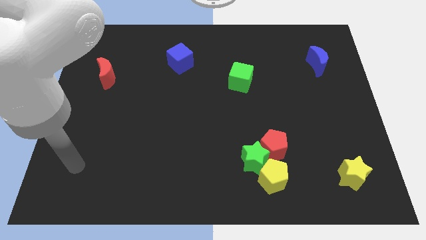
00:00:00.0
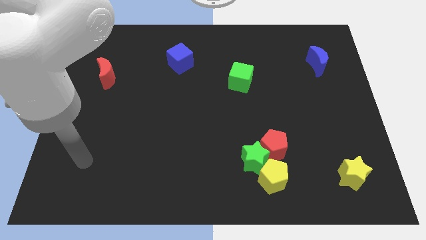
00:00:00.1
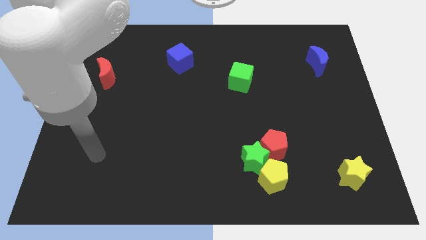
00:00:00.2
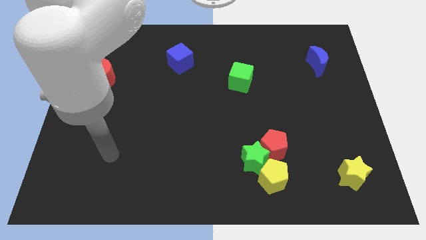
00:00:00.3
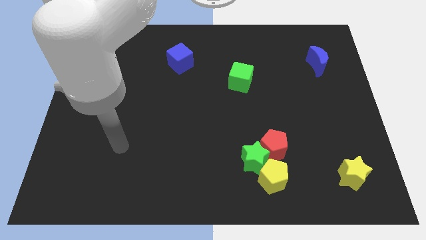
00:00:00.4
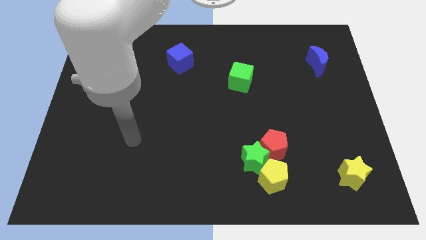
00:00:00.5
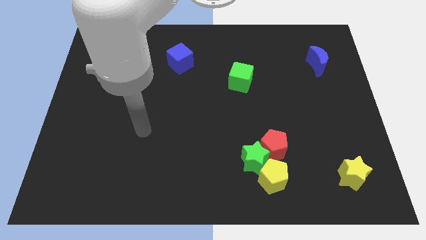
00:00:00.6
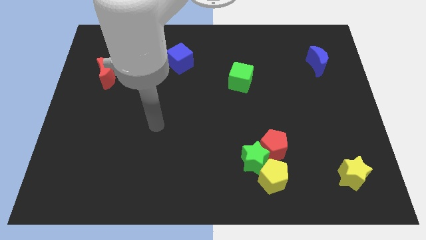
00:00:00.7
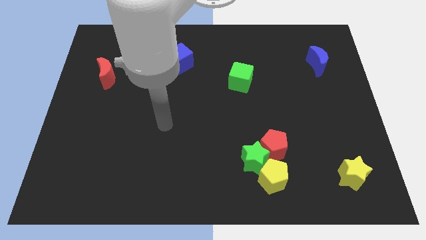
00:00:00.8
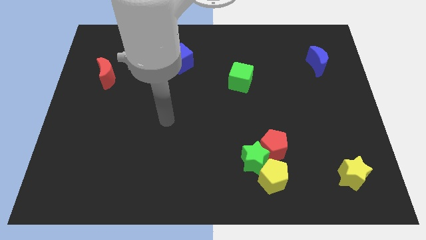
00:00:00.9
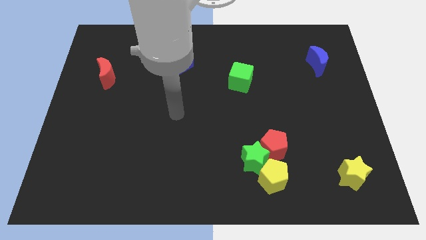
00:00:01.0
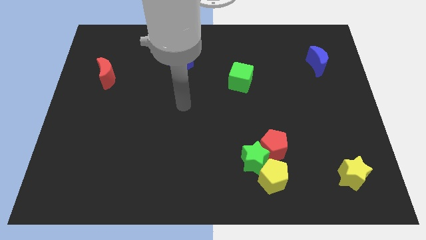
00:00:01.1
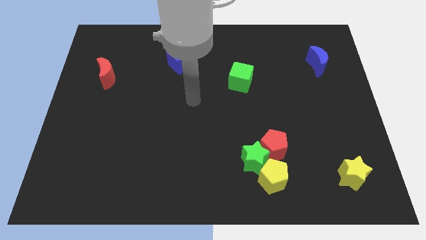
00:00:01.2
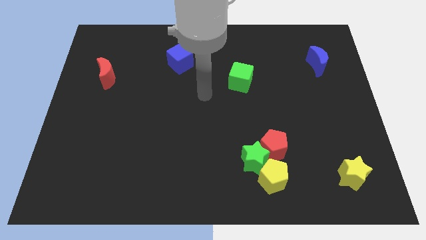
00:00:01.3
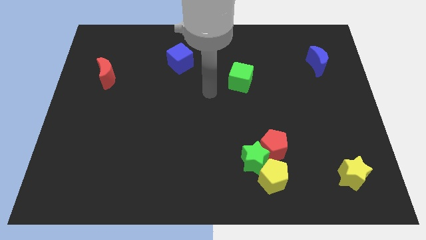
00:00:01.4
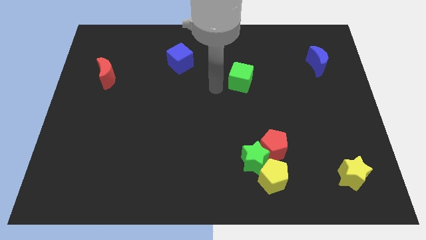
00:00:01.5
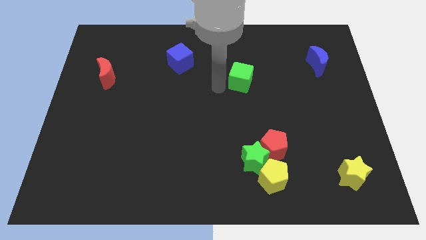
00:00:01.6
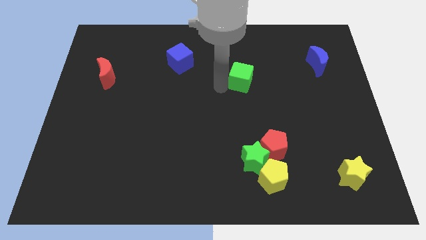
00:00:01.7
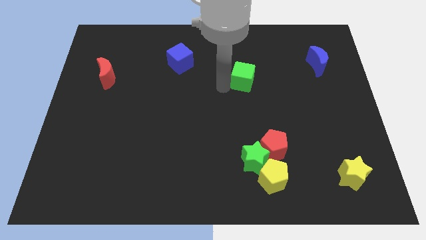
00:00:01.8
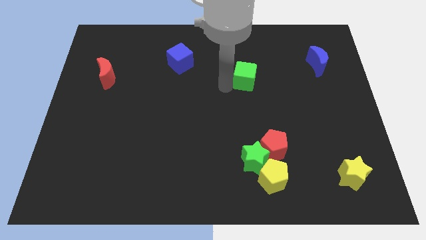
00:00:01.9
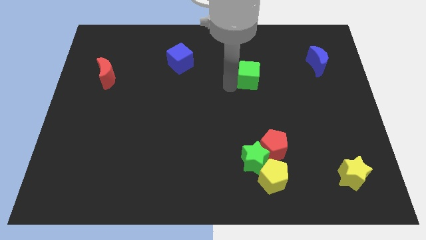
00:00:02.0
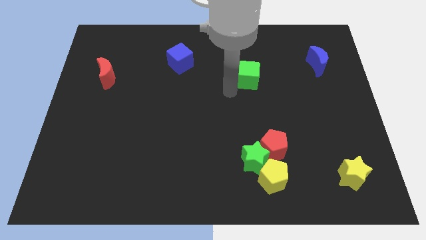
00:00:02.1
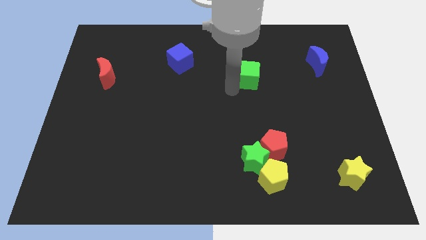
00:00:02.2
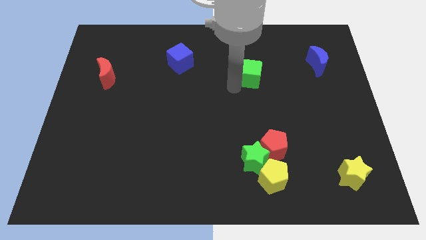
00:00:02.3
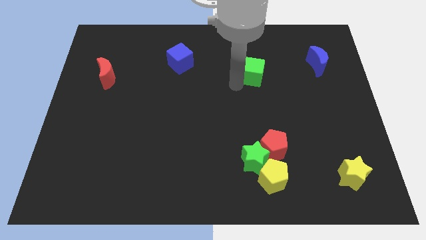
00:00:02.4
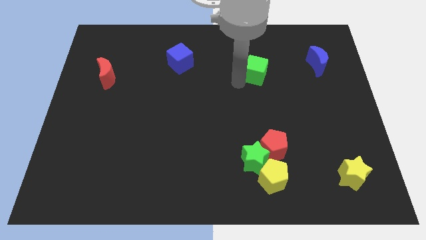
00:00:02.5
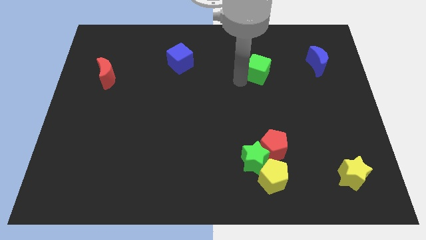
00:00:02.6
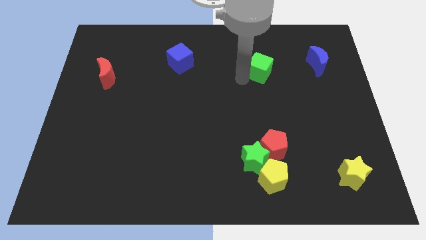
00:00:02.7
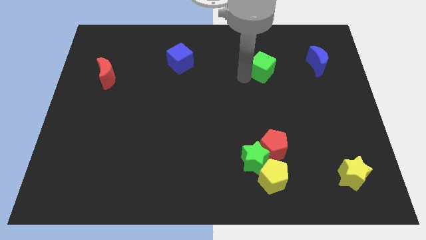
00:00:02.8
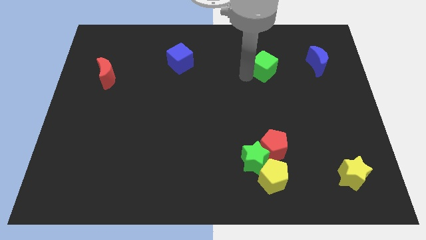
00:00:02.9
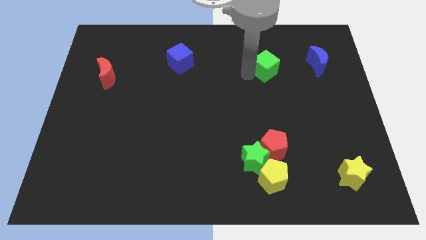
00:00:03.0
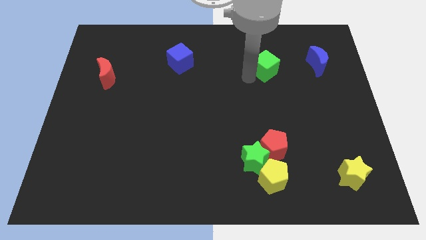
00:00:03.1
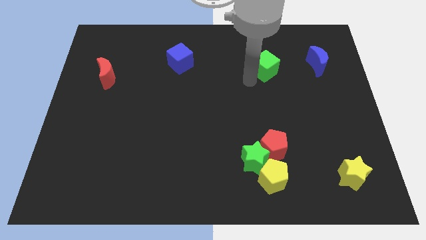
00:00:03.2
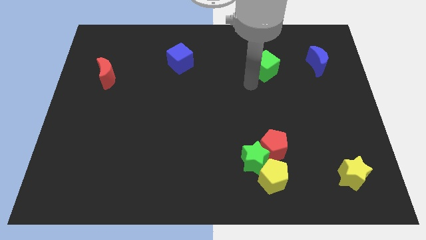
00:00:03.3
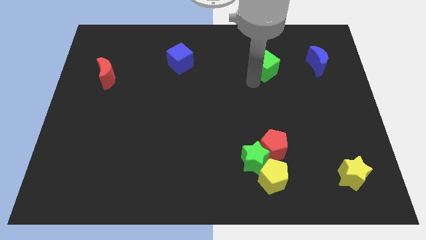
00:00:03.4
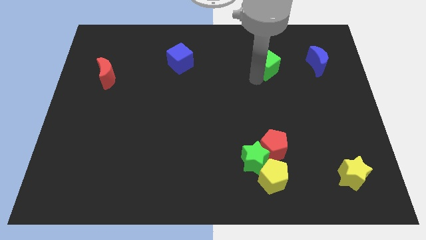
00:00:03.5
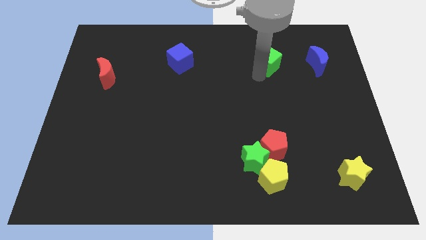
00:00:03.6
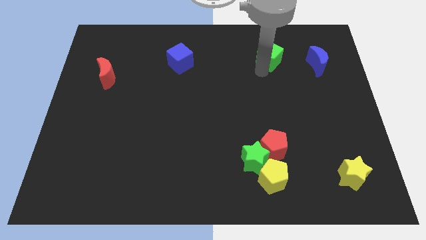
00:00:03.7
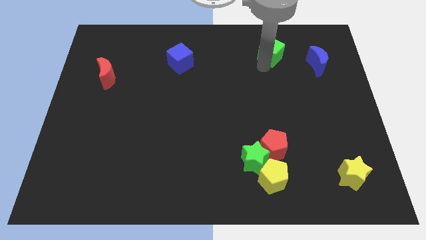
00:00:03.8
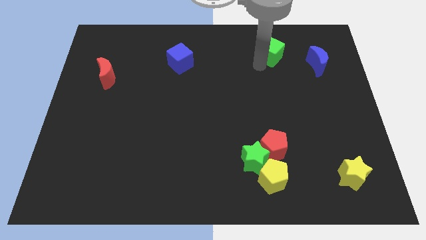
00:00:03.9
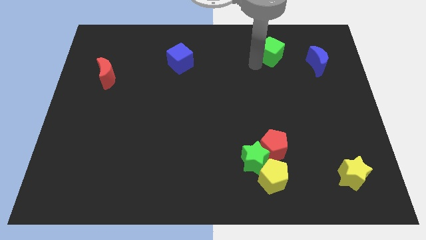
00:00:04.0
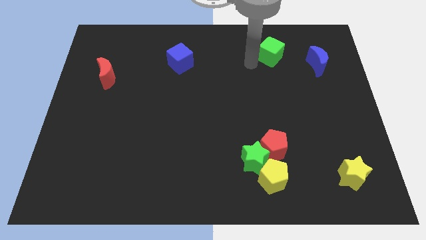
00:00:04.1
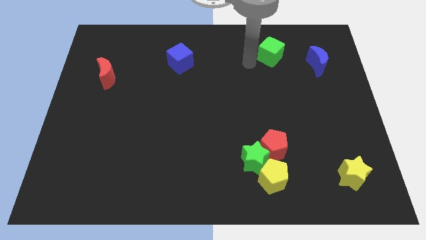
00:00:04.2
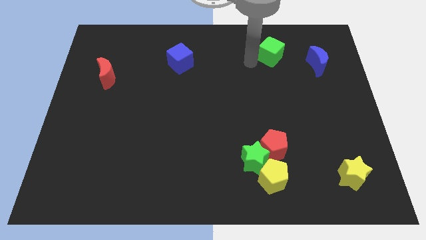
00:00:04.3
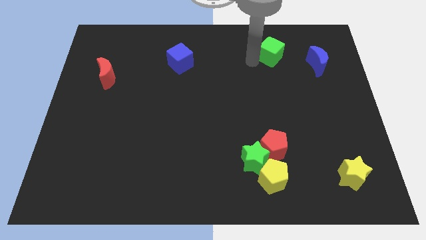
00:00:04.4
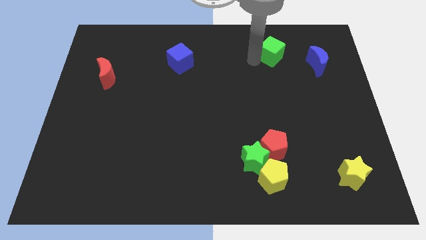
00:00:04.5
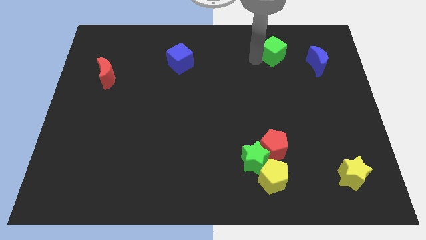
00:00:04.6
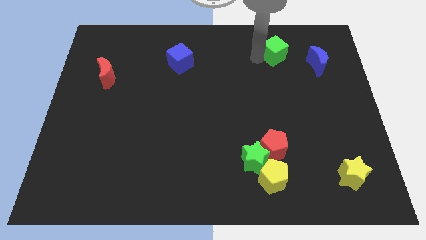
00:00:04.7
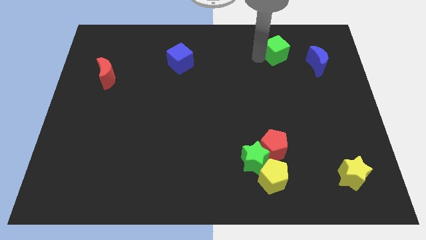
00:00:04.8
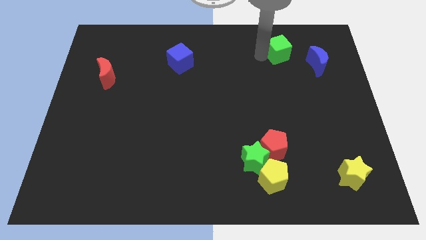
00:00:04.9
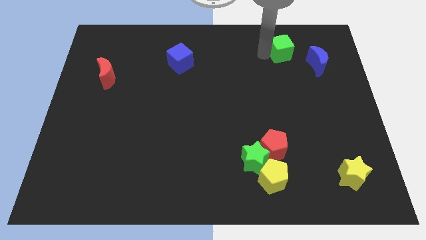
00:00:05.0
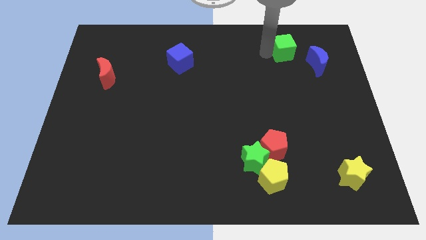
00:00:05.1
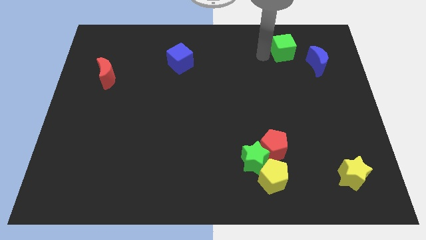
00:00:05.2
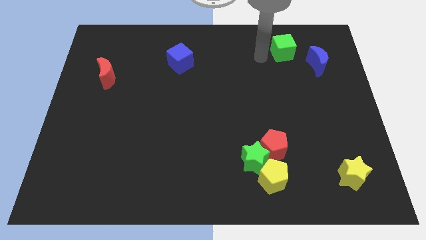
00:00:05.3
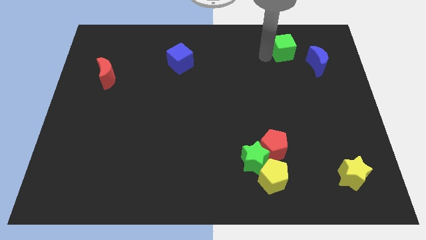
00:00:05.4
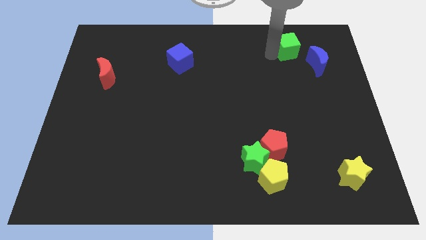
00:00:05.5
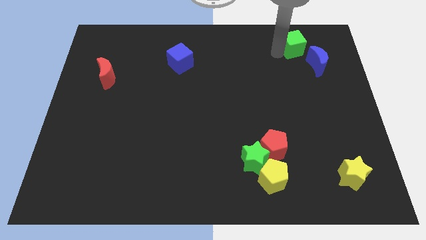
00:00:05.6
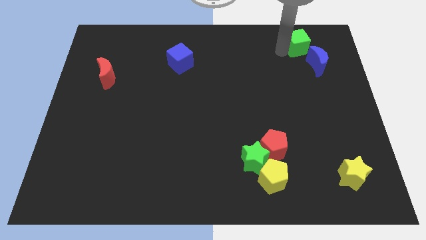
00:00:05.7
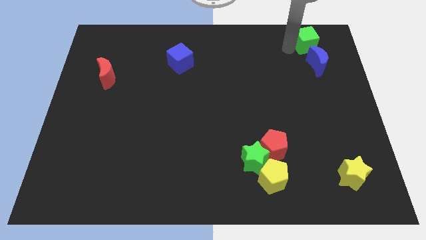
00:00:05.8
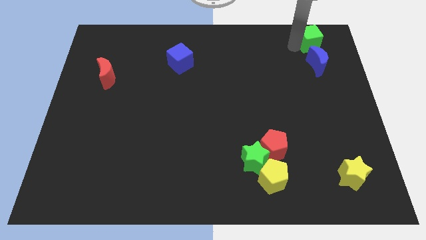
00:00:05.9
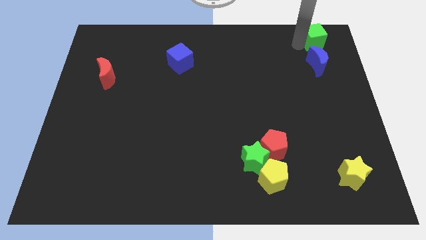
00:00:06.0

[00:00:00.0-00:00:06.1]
put the green cube to the upper right corner
